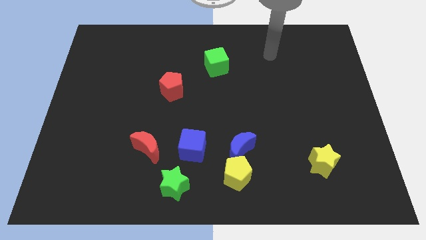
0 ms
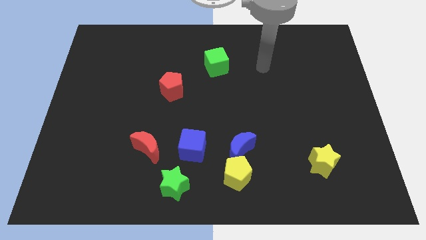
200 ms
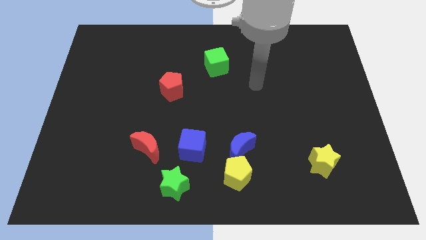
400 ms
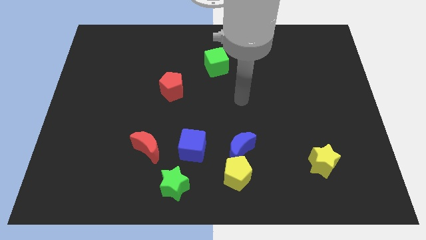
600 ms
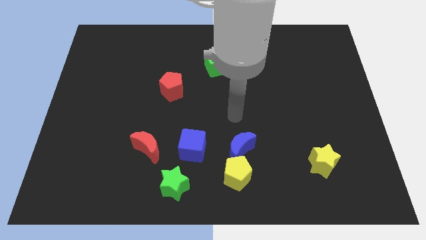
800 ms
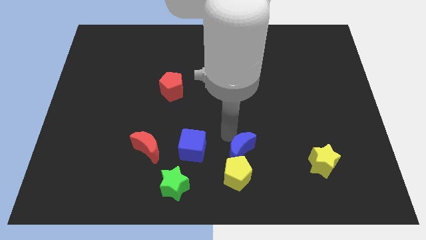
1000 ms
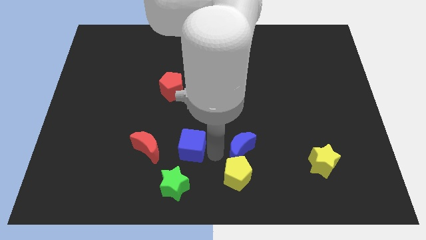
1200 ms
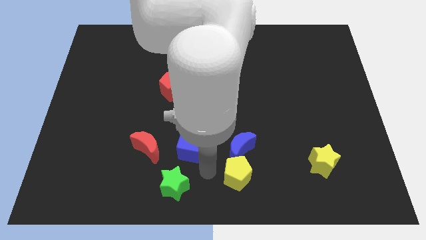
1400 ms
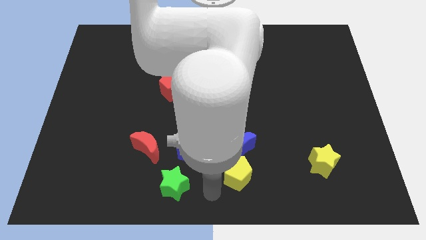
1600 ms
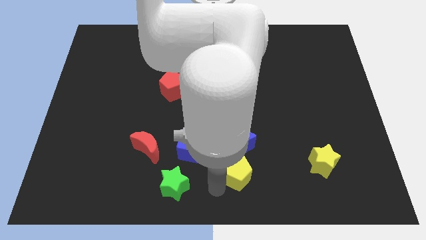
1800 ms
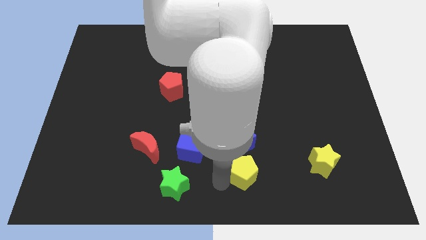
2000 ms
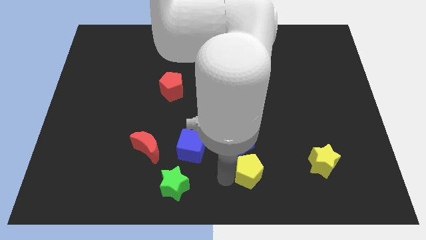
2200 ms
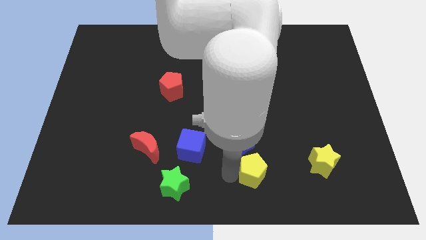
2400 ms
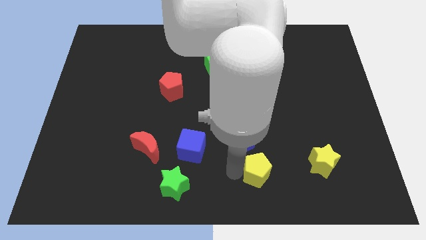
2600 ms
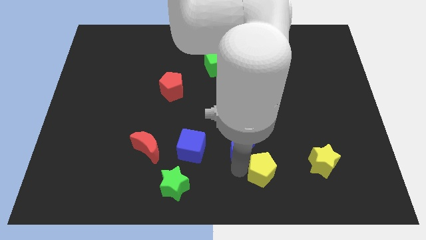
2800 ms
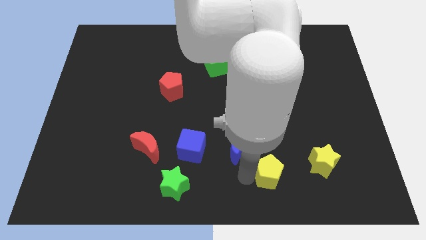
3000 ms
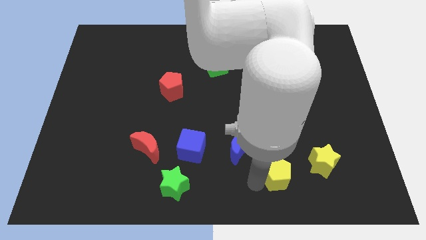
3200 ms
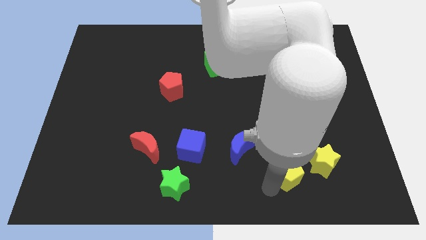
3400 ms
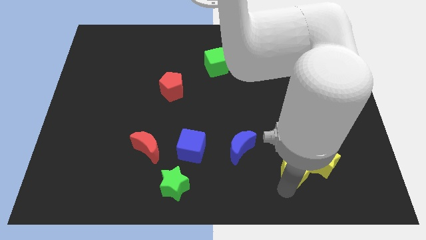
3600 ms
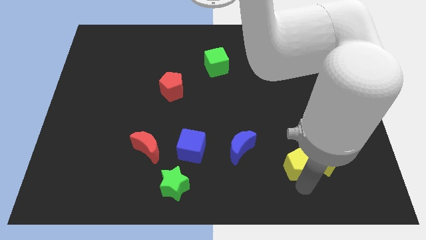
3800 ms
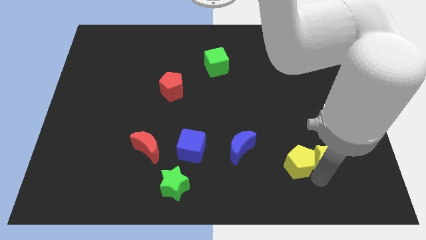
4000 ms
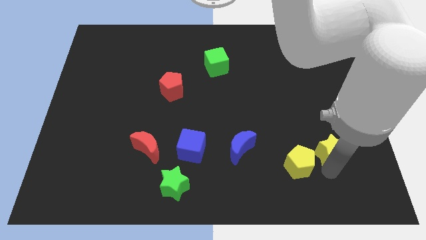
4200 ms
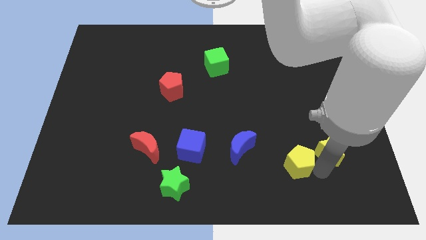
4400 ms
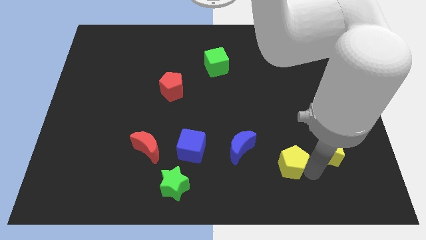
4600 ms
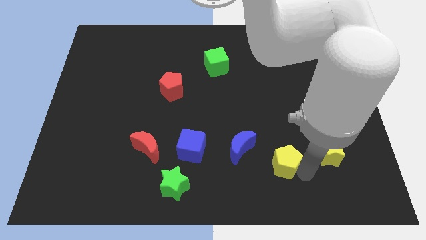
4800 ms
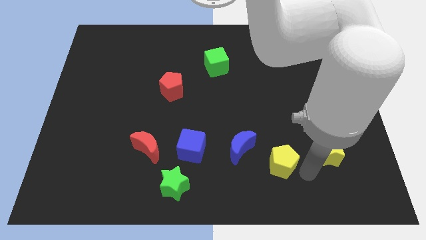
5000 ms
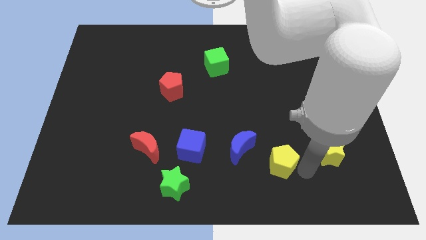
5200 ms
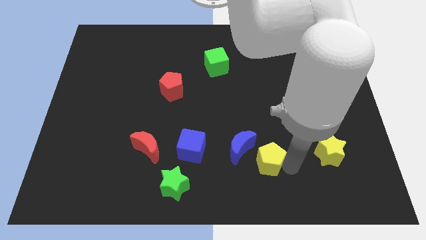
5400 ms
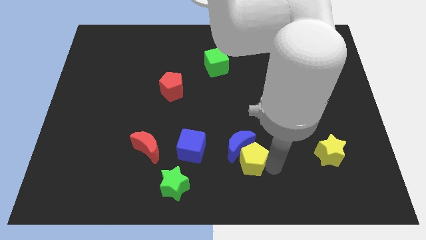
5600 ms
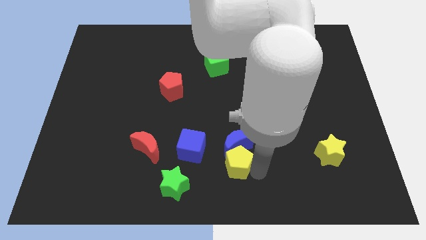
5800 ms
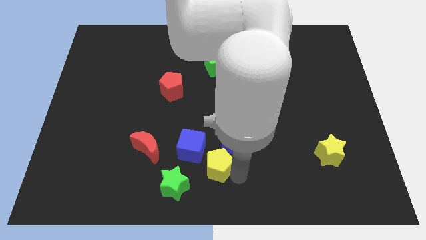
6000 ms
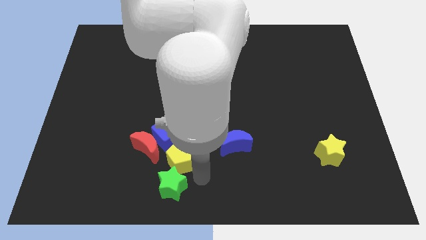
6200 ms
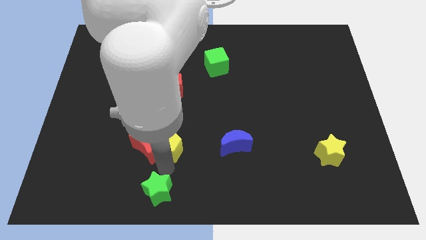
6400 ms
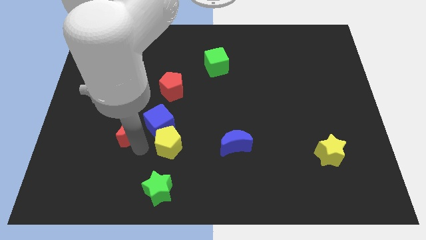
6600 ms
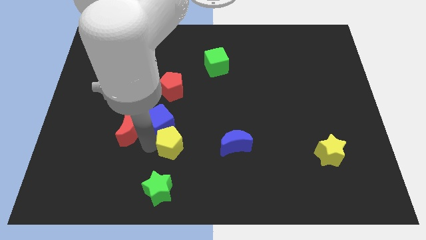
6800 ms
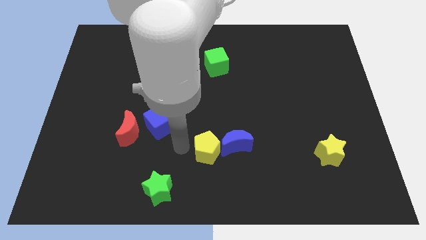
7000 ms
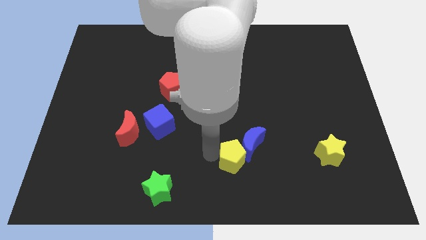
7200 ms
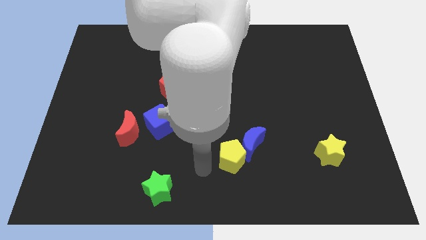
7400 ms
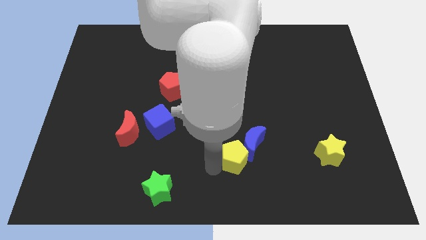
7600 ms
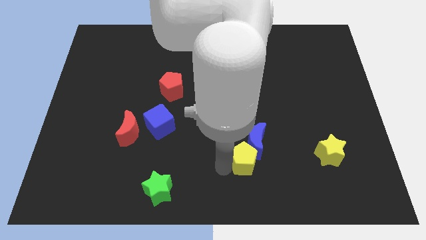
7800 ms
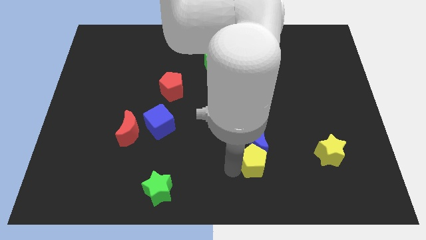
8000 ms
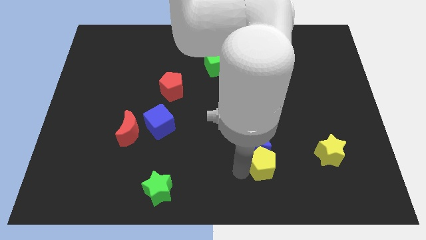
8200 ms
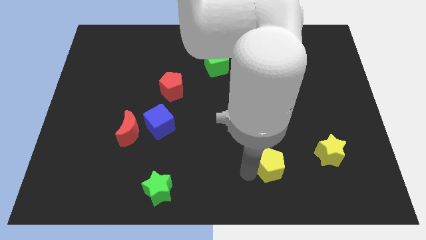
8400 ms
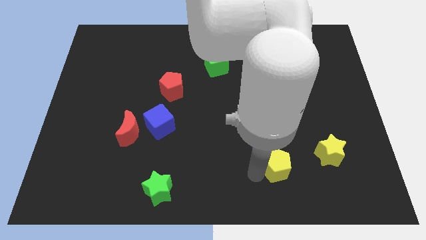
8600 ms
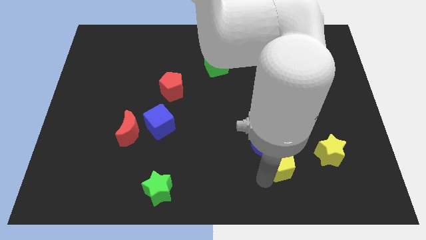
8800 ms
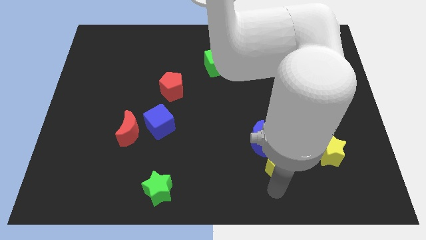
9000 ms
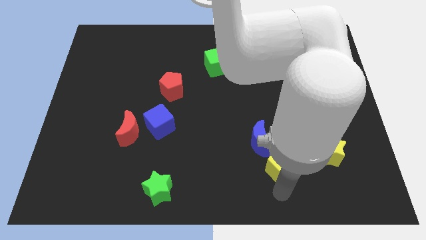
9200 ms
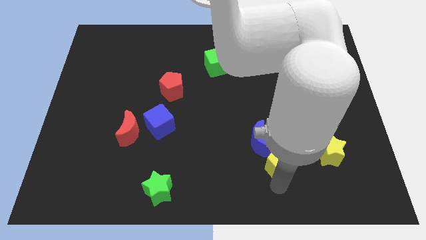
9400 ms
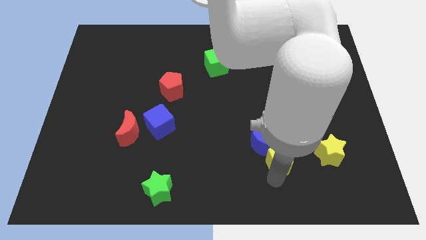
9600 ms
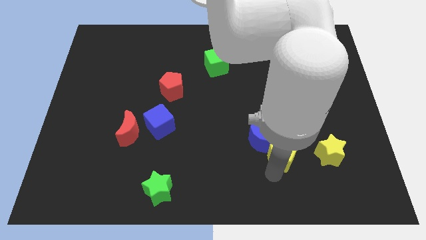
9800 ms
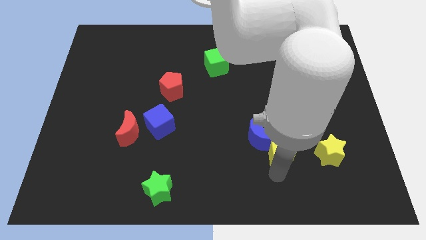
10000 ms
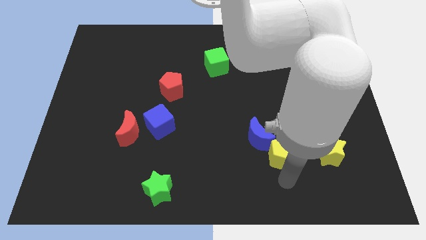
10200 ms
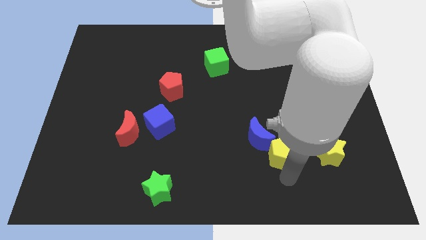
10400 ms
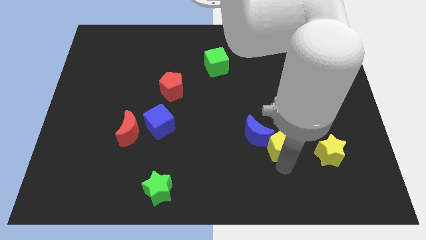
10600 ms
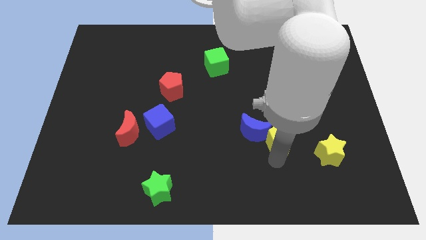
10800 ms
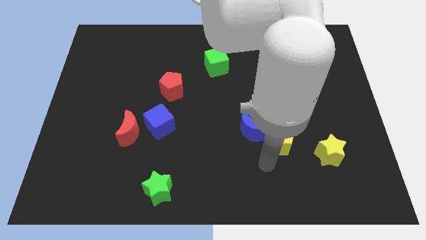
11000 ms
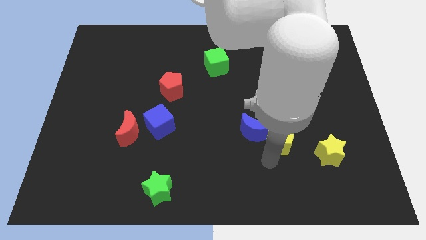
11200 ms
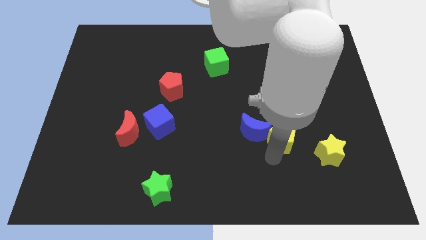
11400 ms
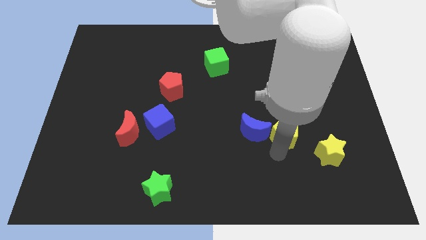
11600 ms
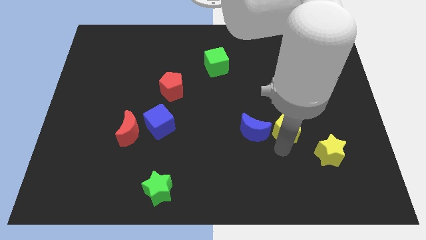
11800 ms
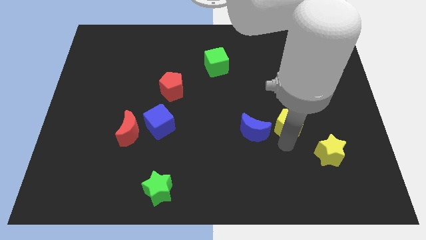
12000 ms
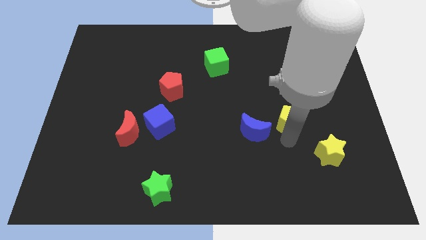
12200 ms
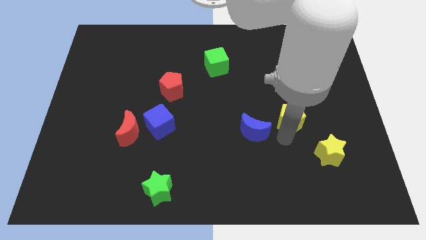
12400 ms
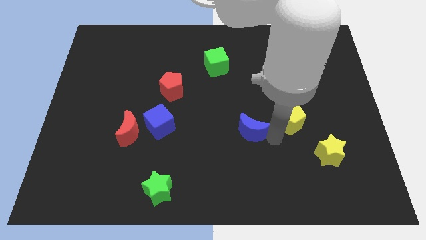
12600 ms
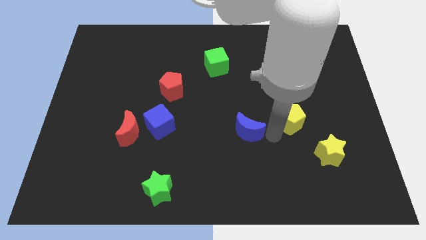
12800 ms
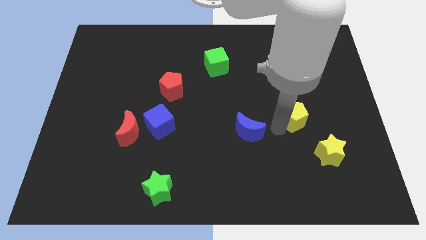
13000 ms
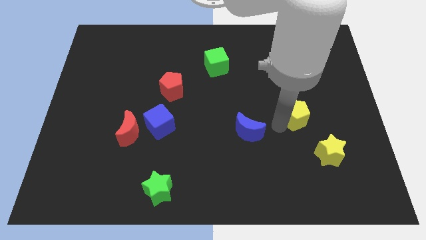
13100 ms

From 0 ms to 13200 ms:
move the yellow pentagon diagonally upwards and right

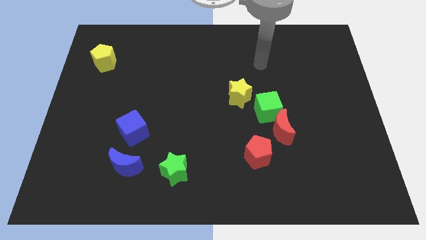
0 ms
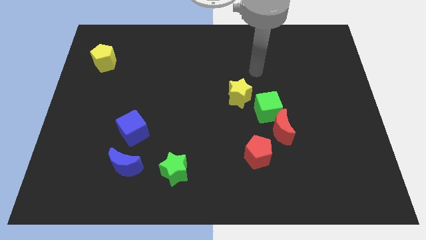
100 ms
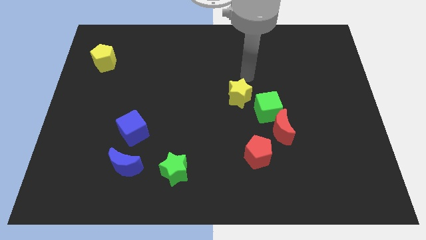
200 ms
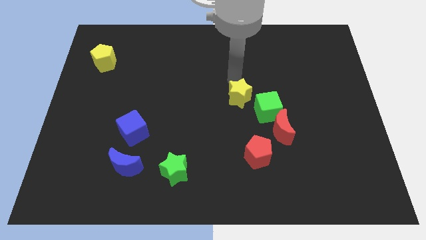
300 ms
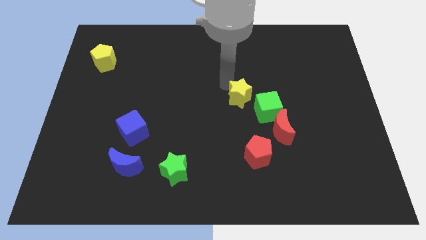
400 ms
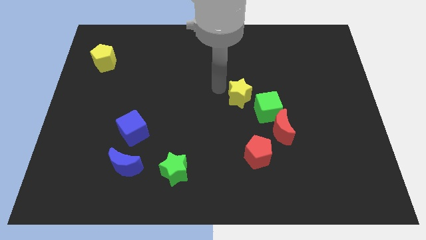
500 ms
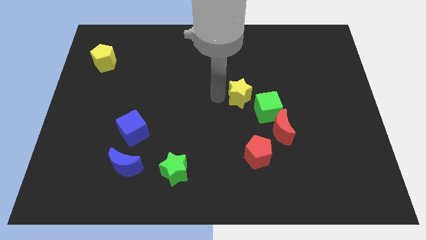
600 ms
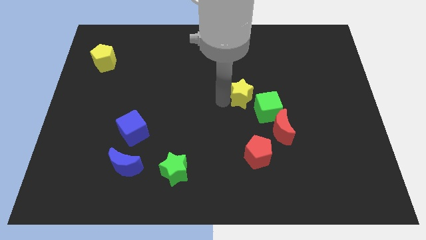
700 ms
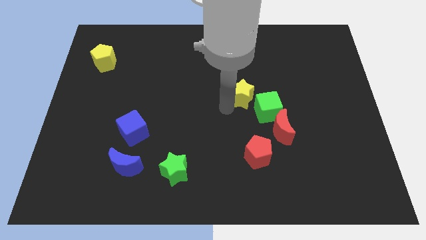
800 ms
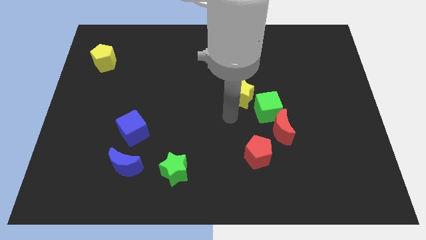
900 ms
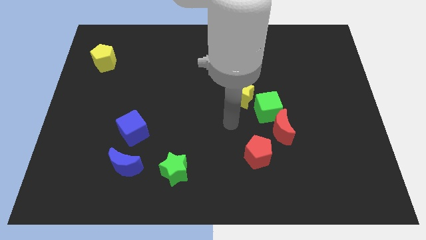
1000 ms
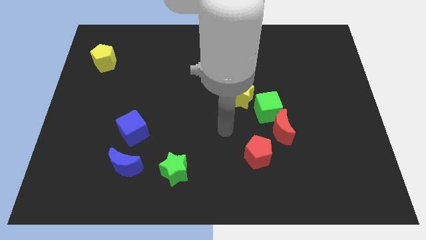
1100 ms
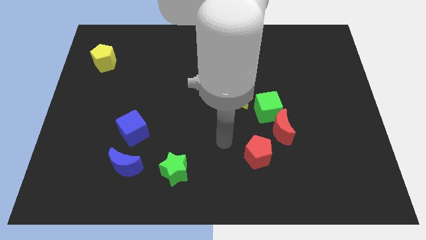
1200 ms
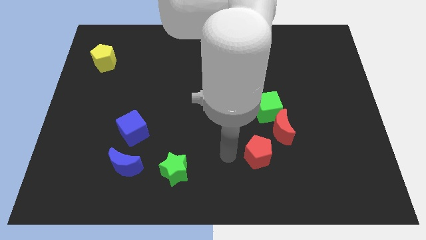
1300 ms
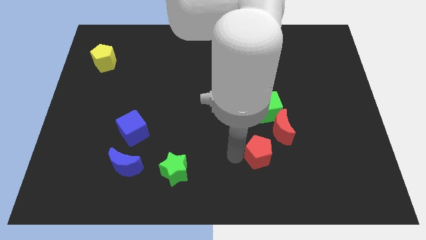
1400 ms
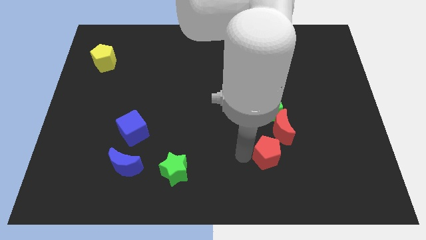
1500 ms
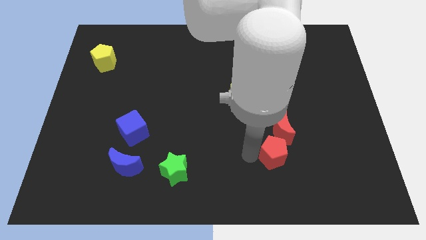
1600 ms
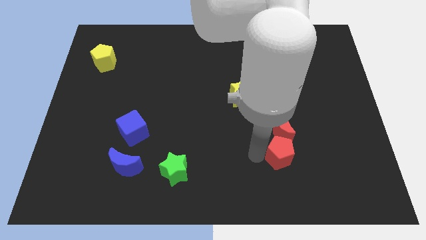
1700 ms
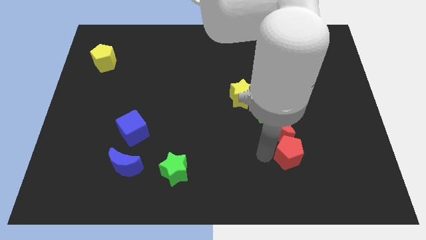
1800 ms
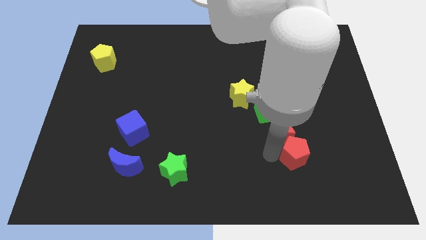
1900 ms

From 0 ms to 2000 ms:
move the red pentagon right a little
